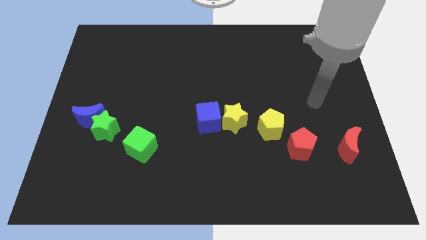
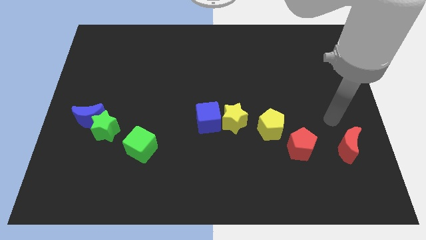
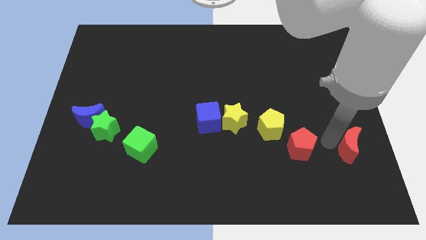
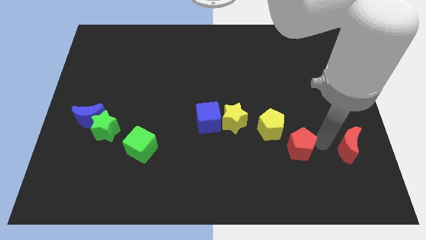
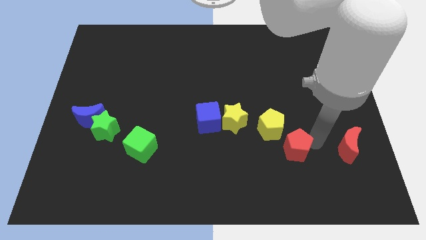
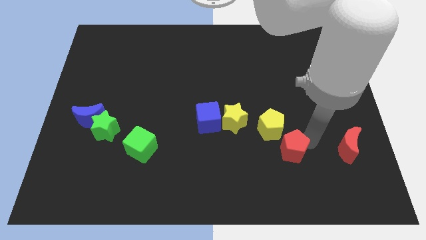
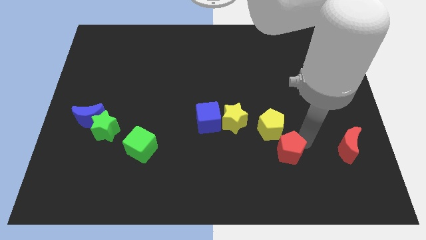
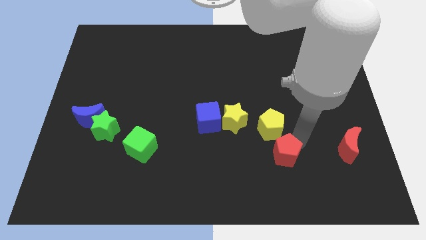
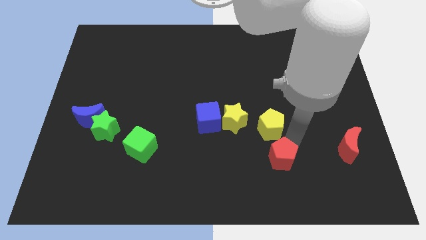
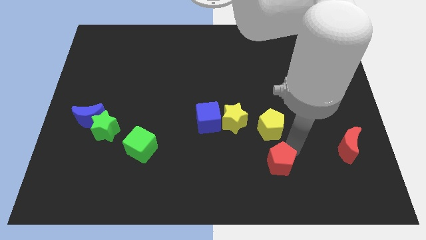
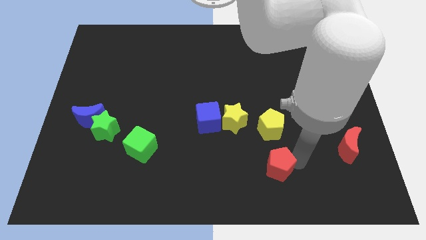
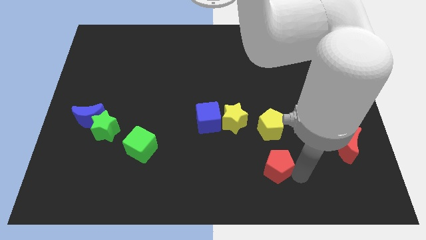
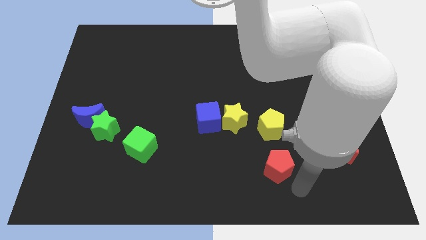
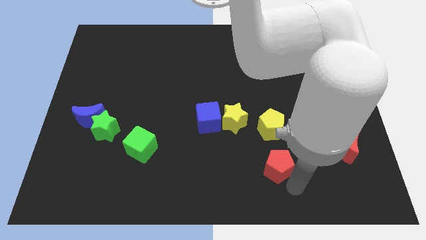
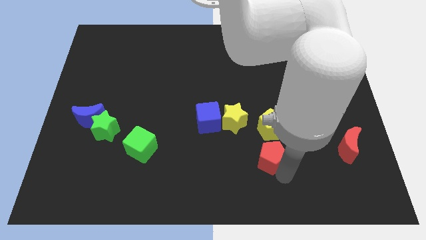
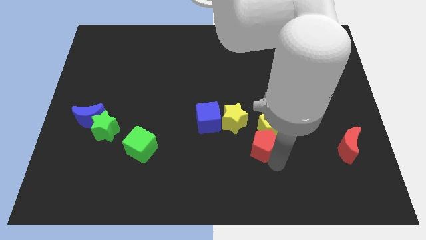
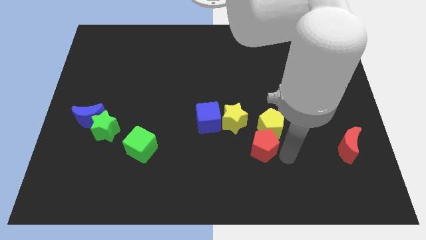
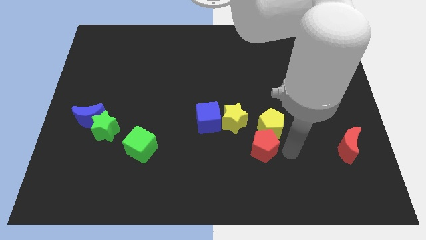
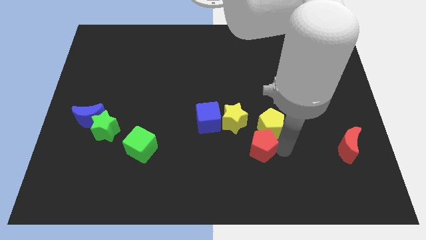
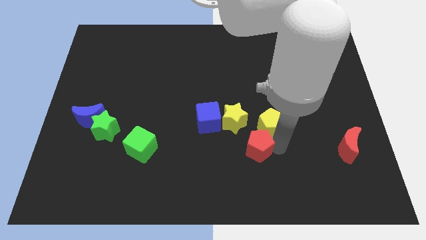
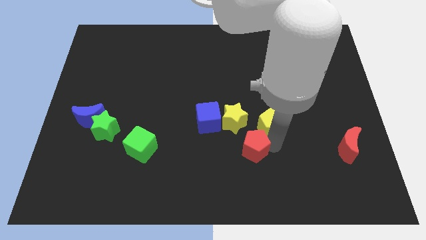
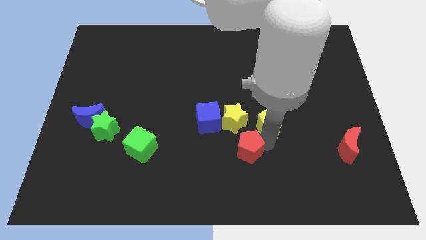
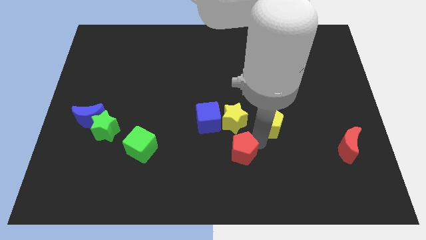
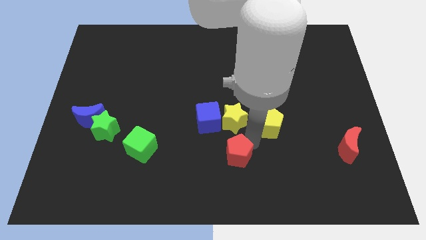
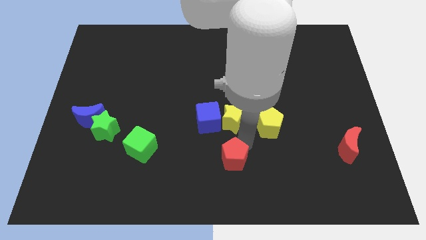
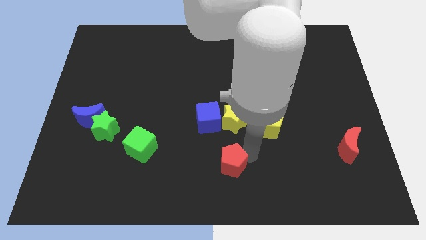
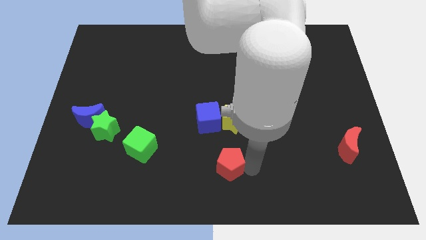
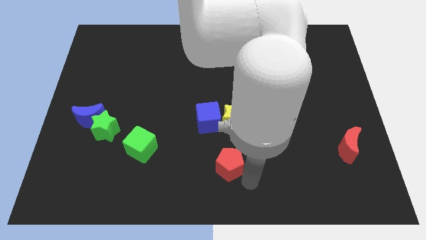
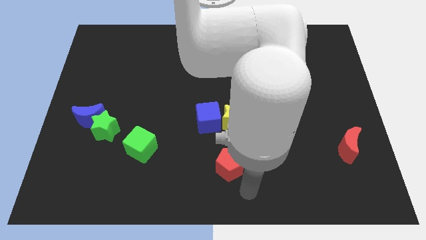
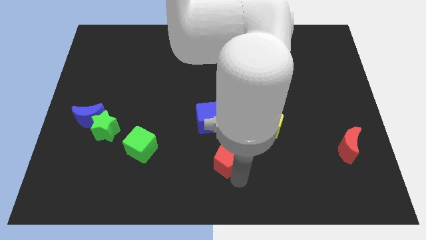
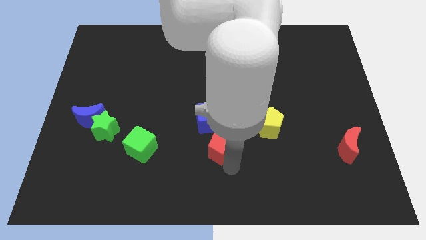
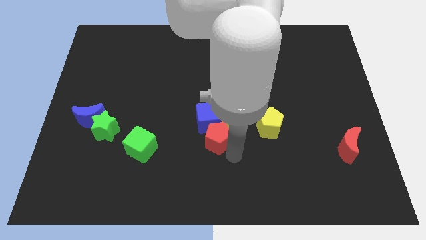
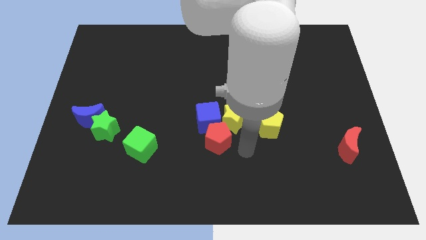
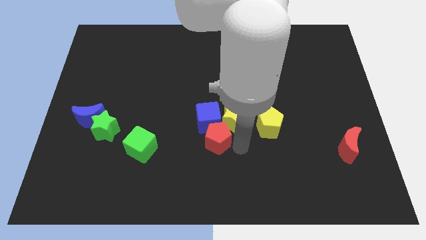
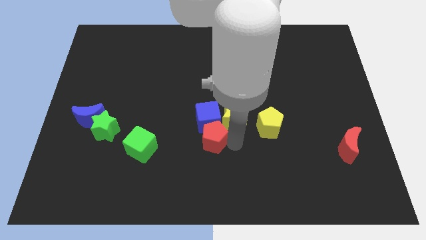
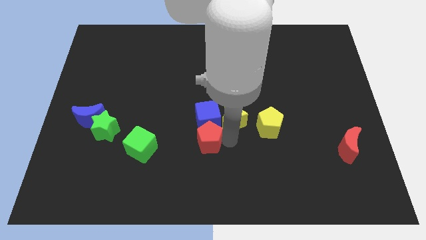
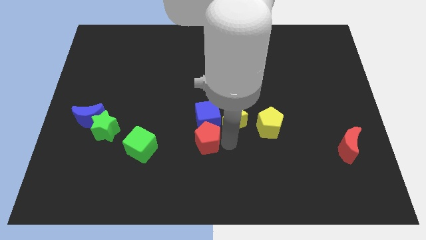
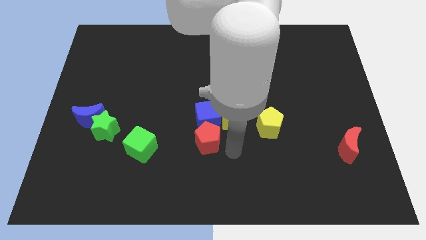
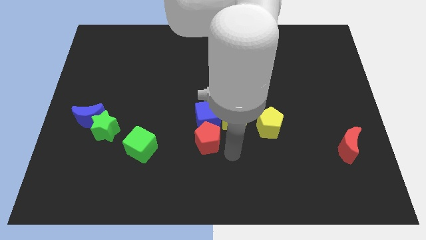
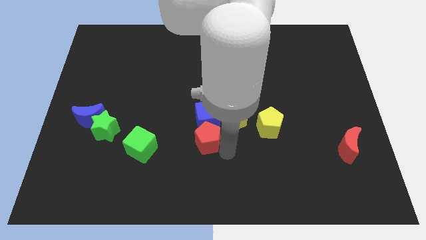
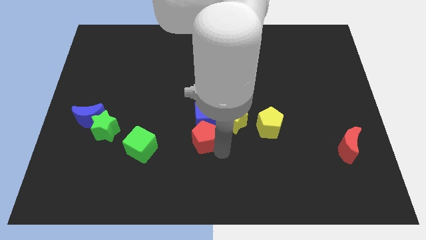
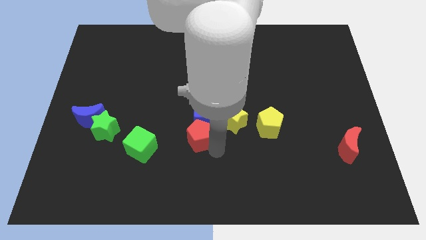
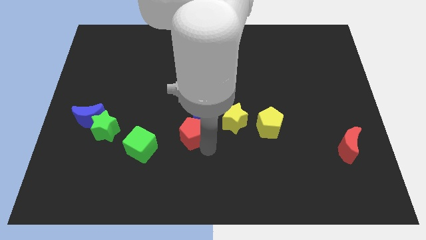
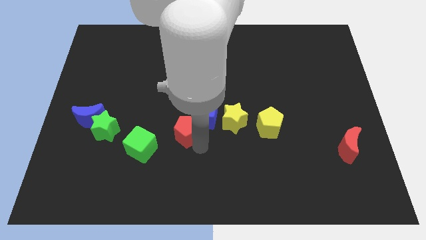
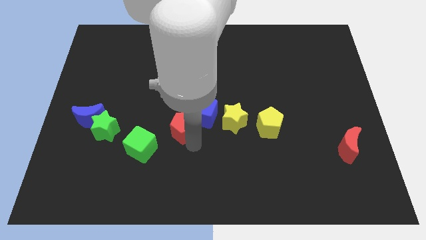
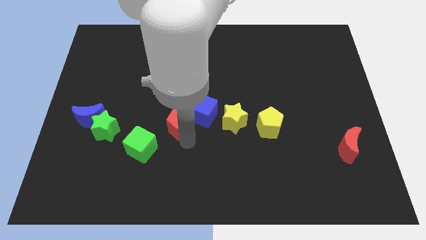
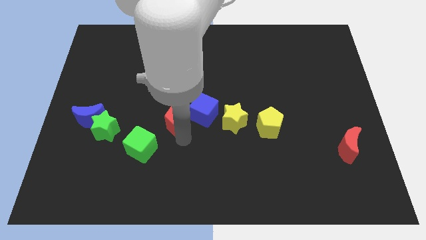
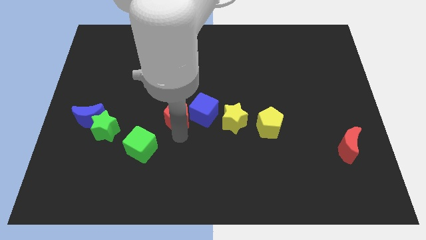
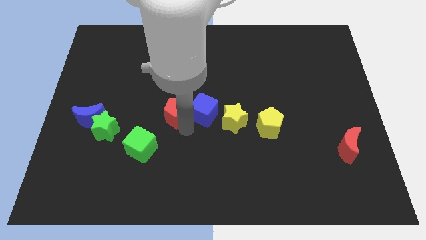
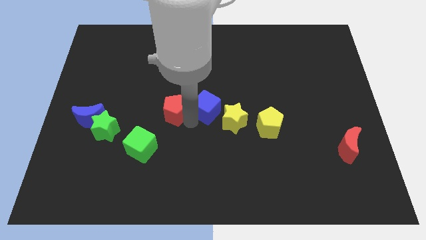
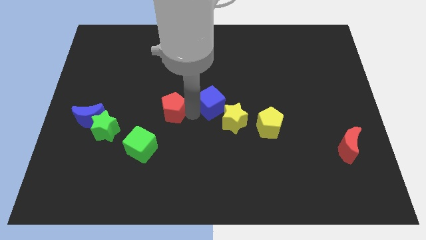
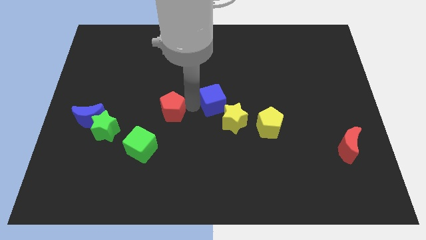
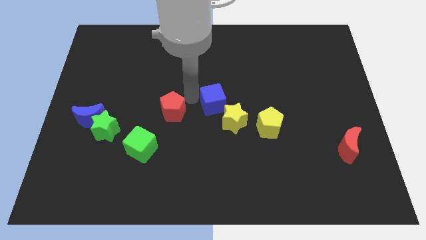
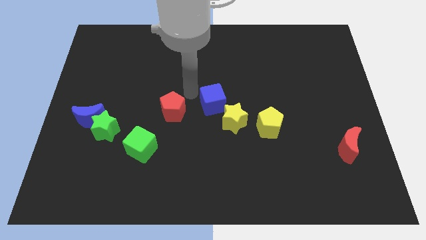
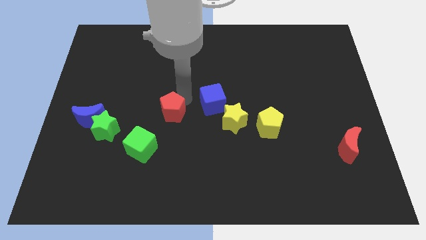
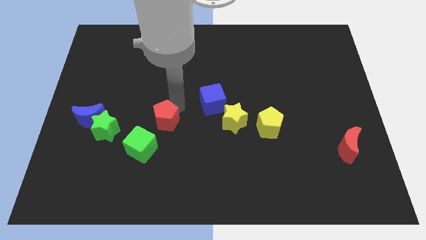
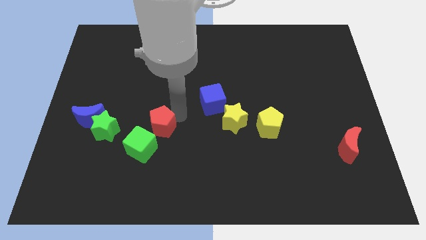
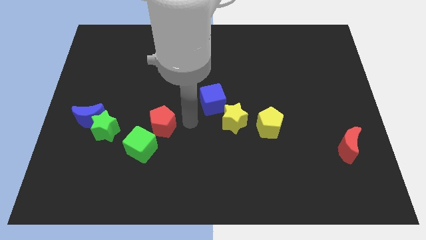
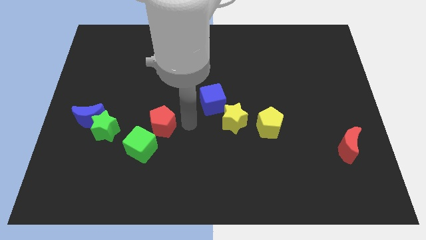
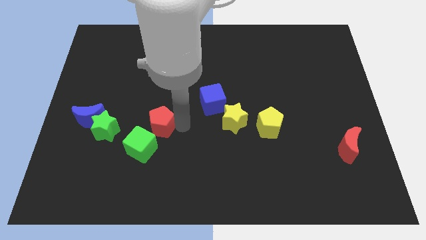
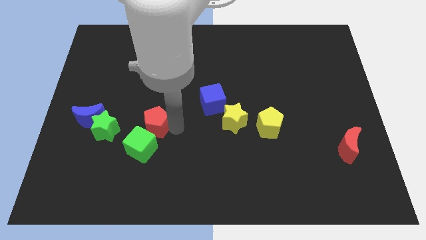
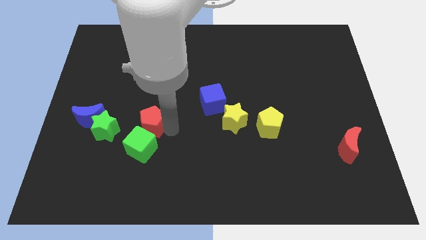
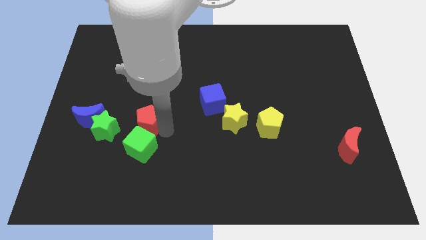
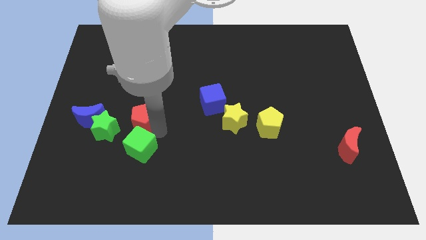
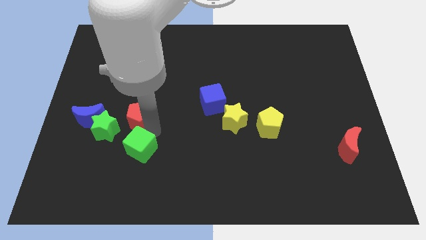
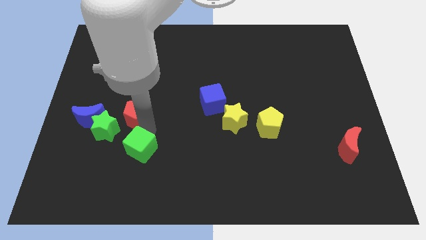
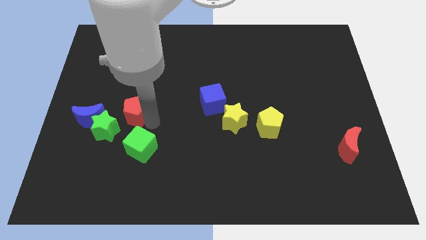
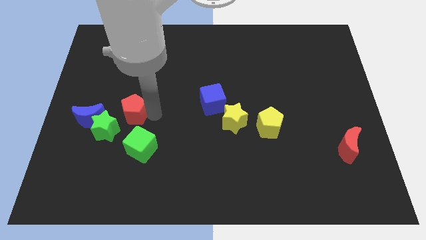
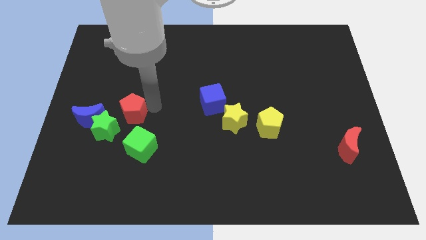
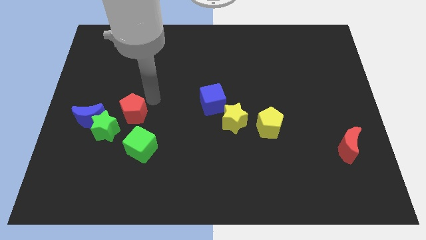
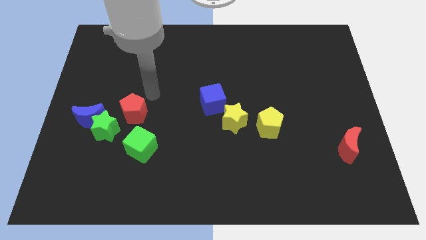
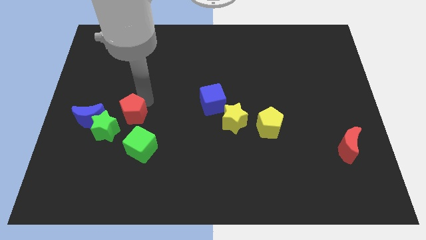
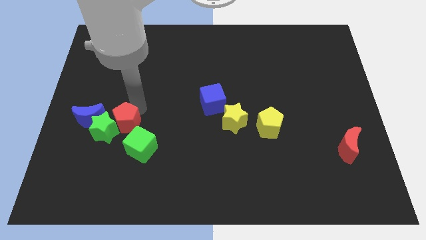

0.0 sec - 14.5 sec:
move the red pentagon next to the green star
